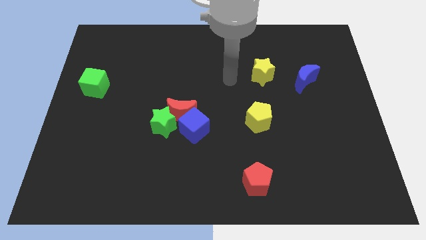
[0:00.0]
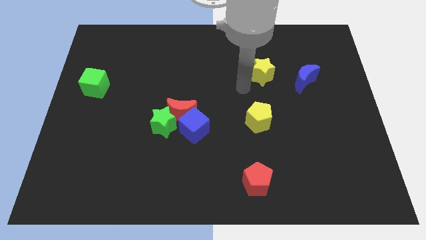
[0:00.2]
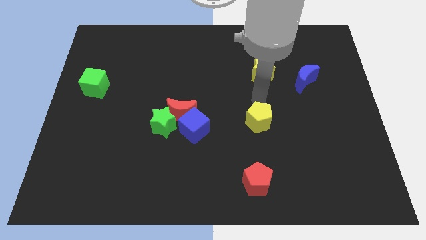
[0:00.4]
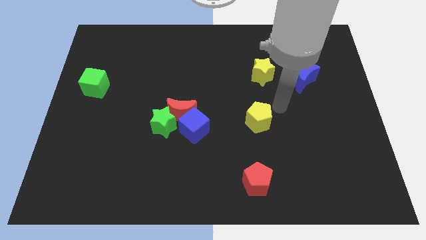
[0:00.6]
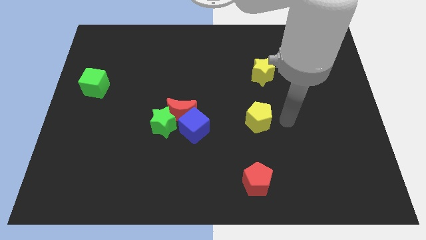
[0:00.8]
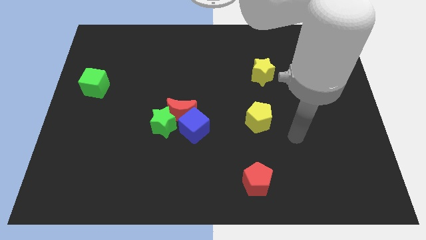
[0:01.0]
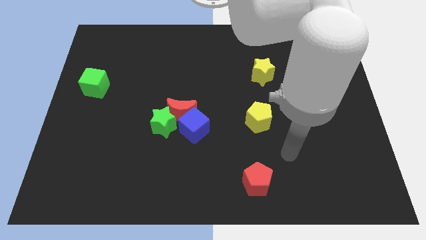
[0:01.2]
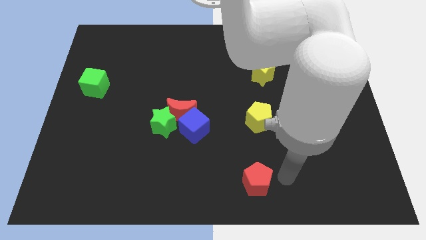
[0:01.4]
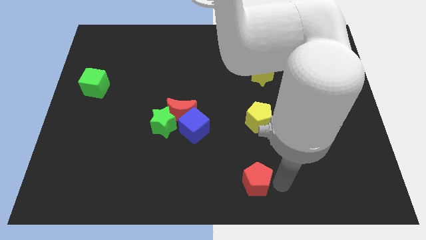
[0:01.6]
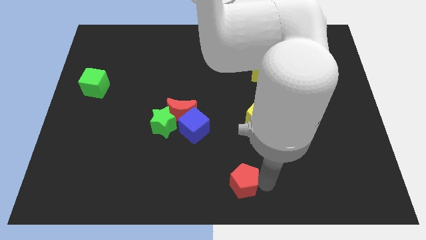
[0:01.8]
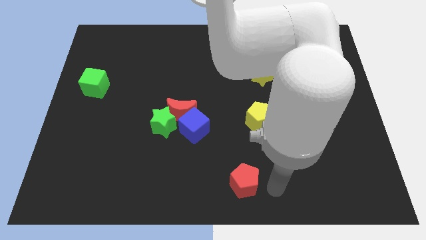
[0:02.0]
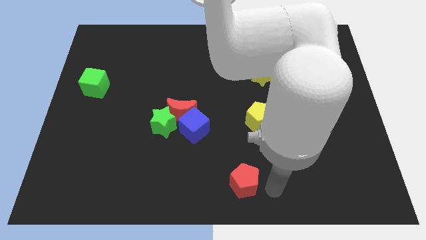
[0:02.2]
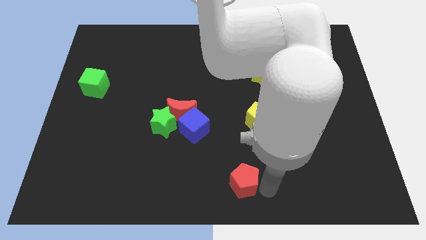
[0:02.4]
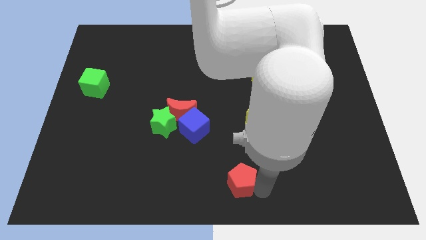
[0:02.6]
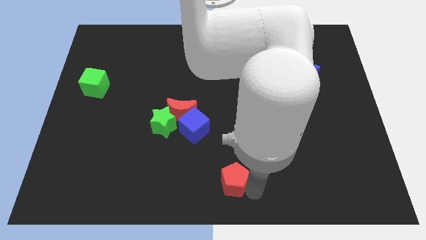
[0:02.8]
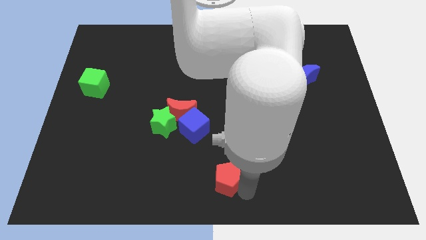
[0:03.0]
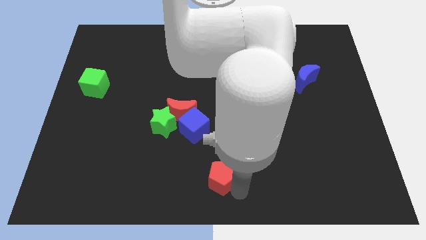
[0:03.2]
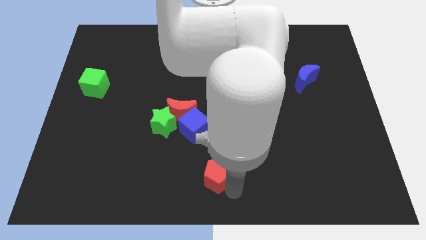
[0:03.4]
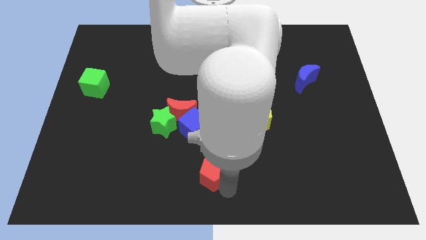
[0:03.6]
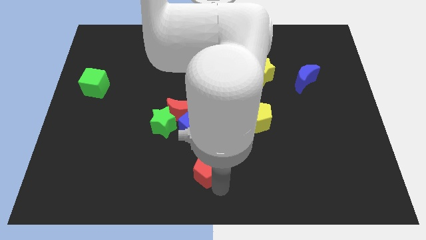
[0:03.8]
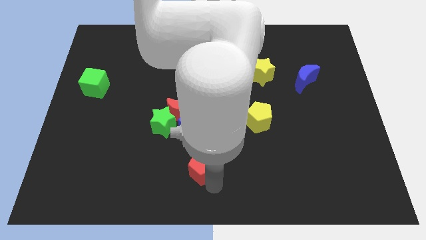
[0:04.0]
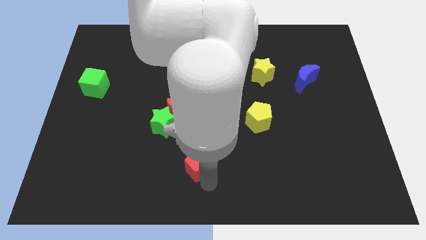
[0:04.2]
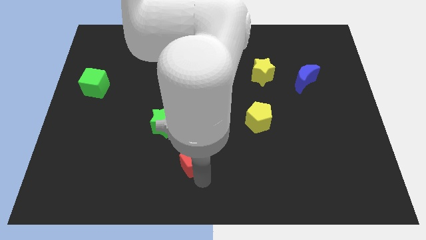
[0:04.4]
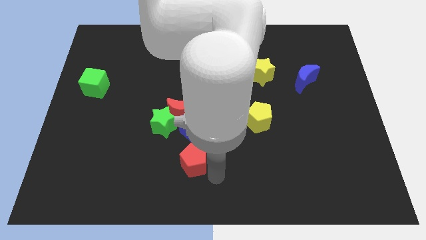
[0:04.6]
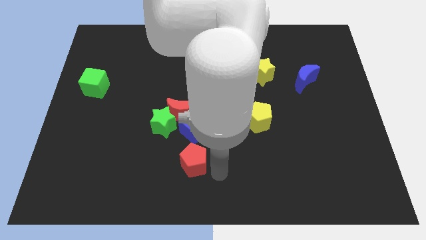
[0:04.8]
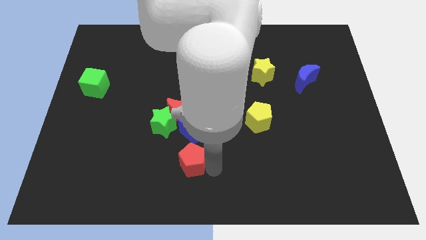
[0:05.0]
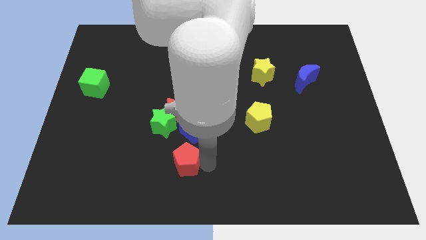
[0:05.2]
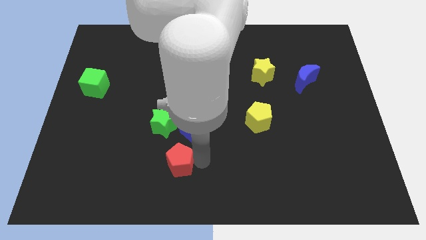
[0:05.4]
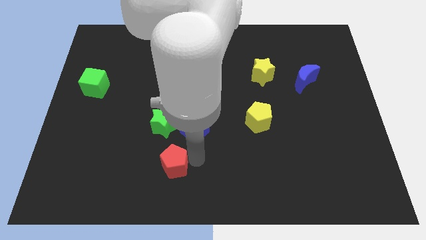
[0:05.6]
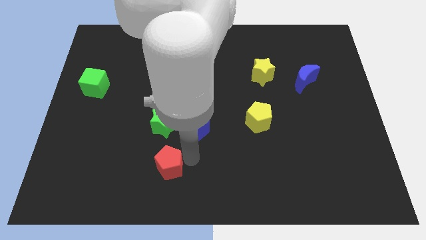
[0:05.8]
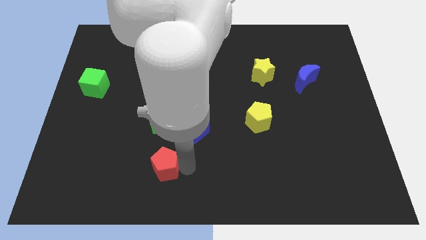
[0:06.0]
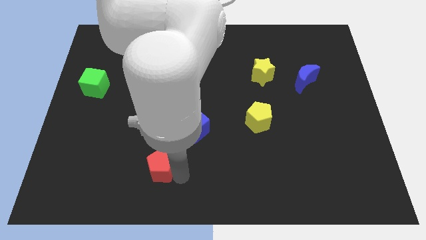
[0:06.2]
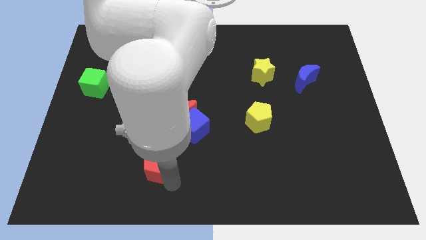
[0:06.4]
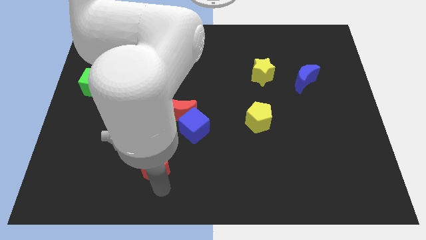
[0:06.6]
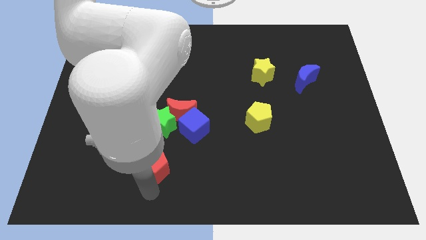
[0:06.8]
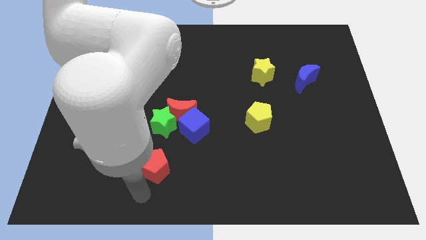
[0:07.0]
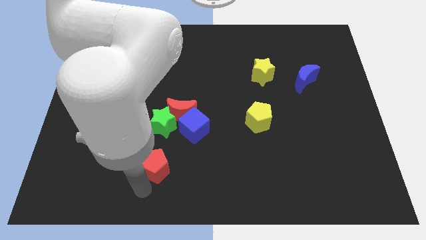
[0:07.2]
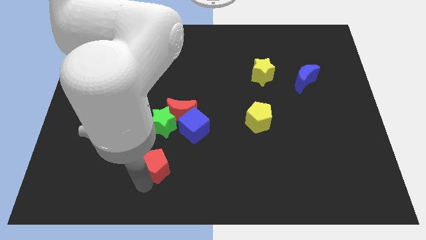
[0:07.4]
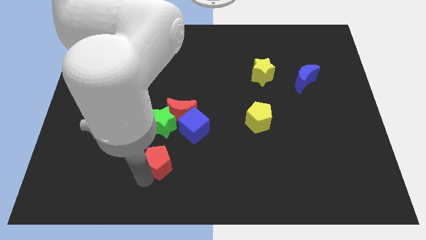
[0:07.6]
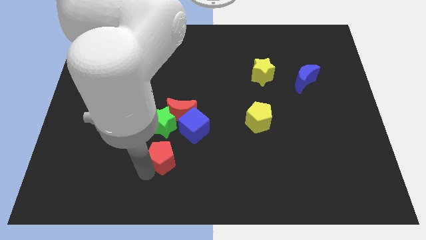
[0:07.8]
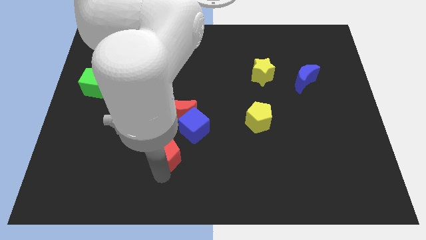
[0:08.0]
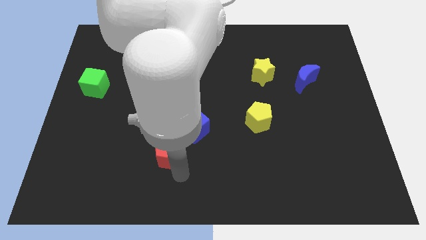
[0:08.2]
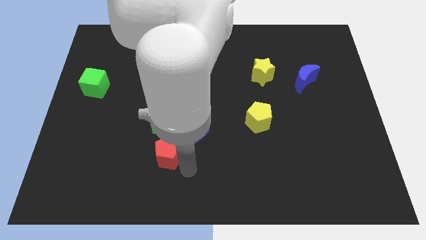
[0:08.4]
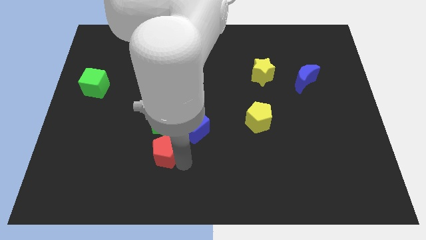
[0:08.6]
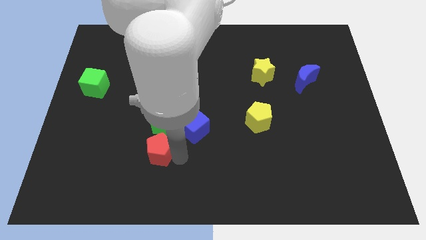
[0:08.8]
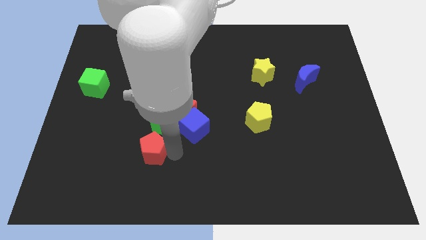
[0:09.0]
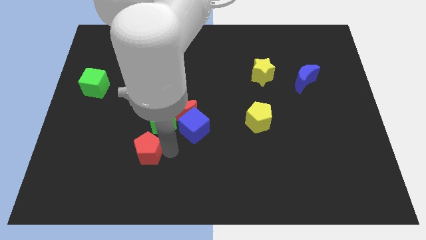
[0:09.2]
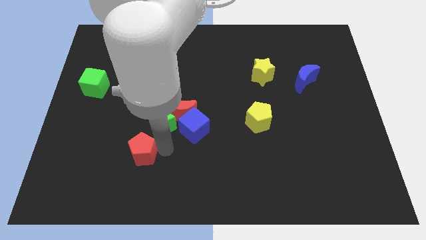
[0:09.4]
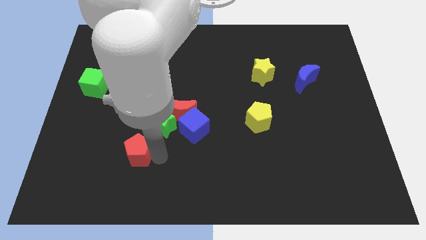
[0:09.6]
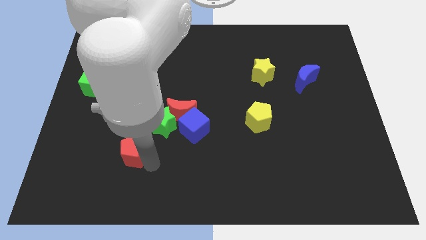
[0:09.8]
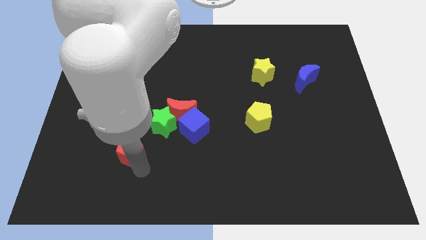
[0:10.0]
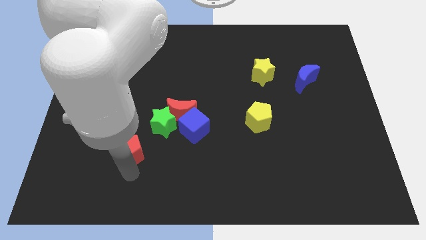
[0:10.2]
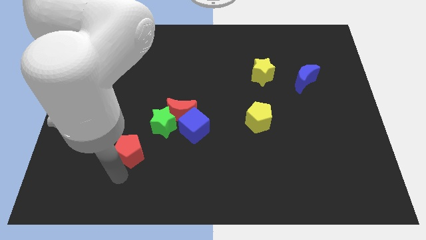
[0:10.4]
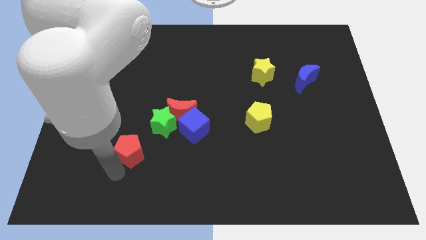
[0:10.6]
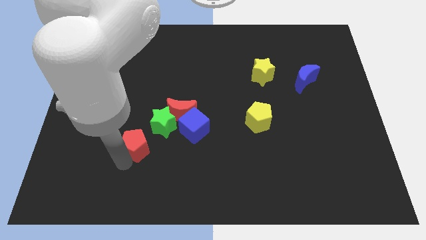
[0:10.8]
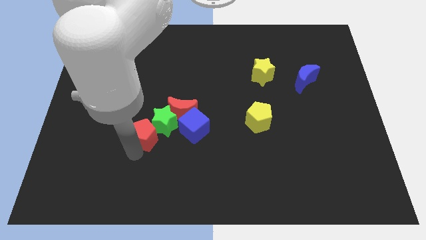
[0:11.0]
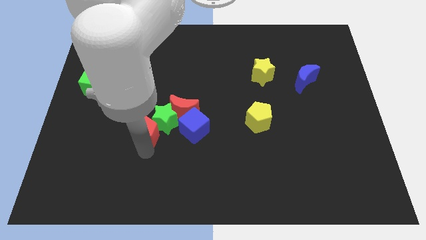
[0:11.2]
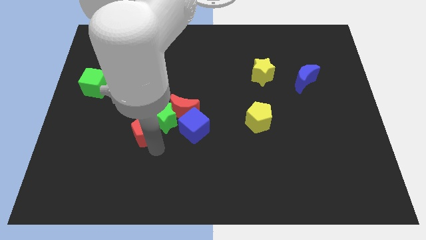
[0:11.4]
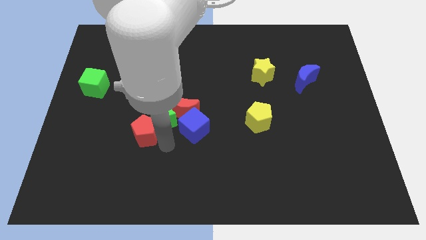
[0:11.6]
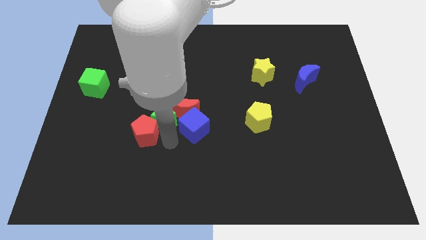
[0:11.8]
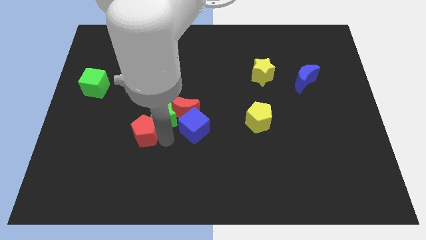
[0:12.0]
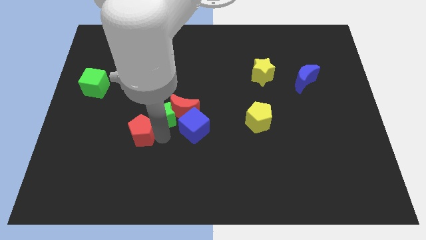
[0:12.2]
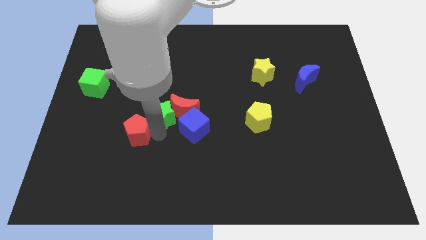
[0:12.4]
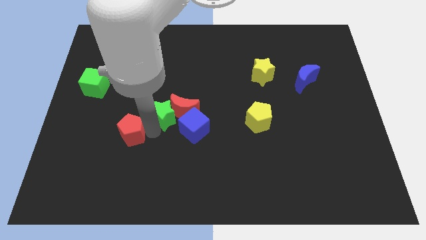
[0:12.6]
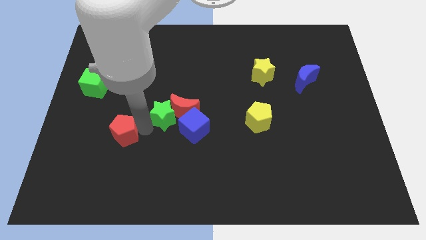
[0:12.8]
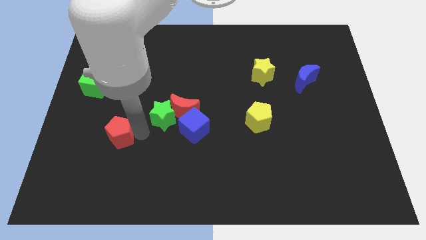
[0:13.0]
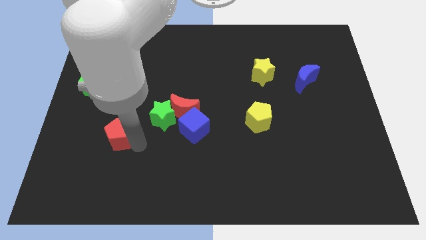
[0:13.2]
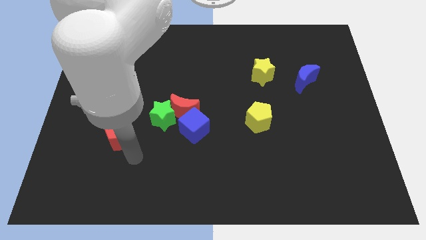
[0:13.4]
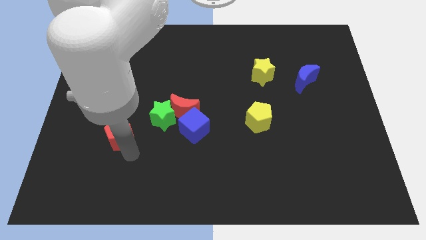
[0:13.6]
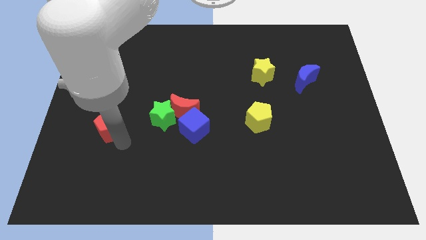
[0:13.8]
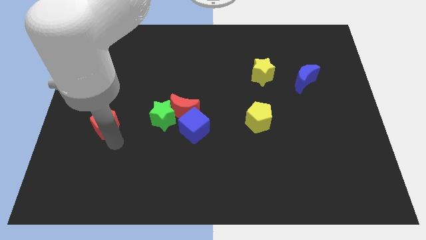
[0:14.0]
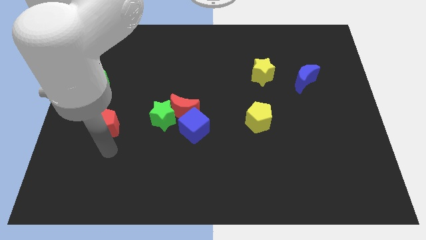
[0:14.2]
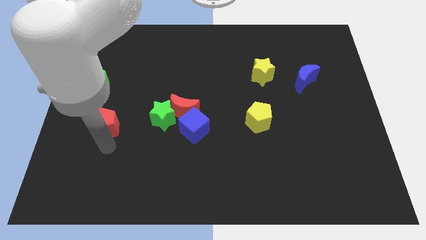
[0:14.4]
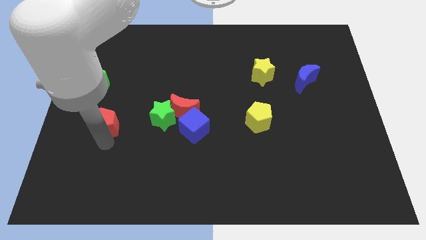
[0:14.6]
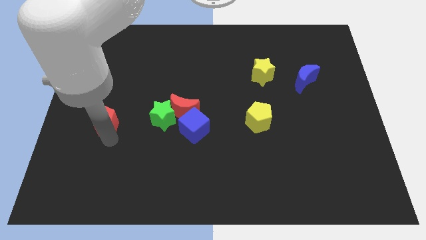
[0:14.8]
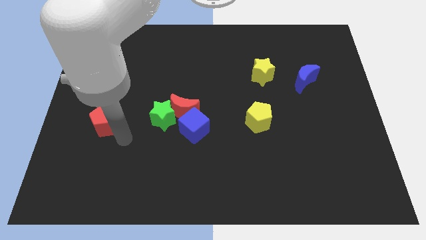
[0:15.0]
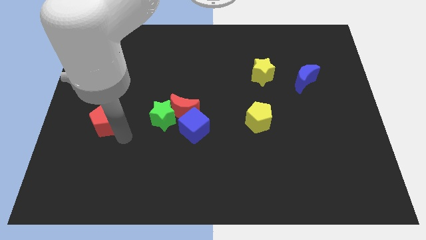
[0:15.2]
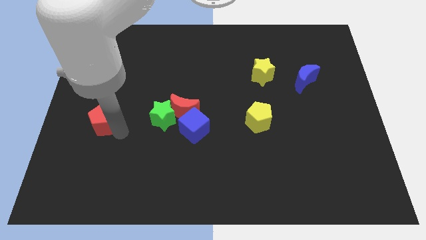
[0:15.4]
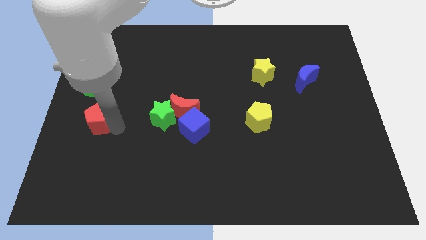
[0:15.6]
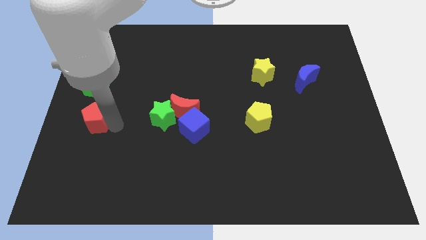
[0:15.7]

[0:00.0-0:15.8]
push the red pentagon to the left side of the board
